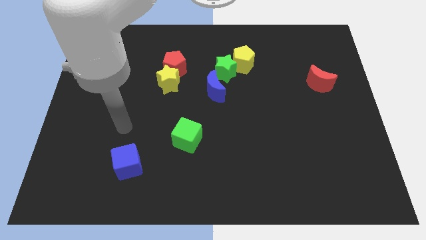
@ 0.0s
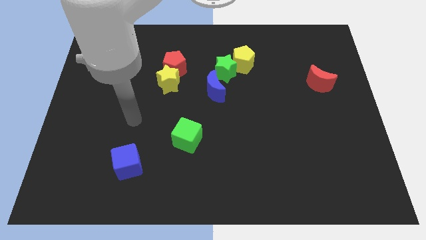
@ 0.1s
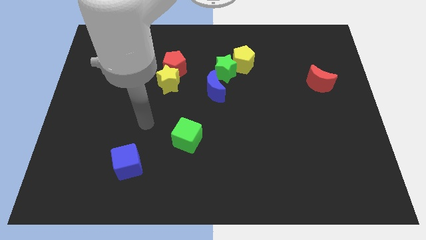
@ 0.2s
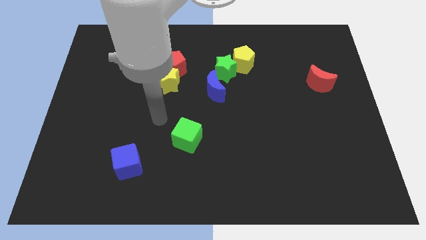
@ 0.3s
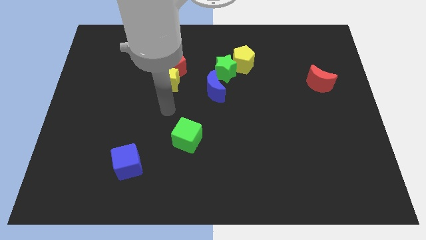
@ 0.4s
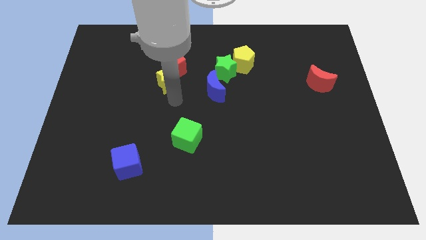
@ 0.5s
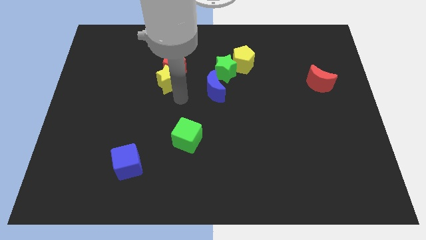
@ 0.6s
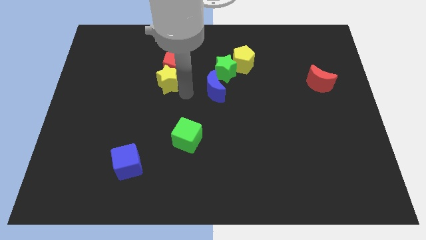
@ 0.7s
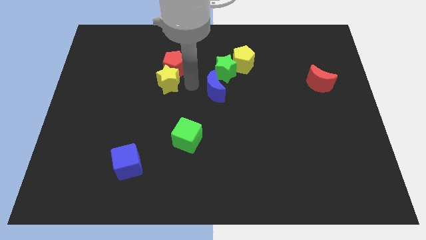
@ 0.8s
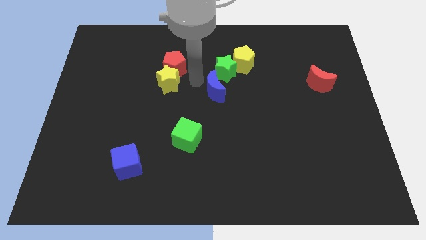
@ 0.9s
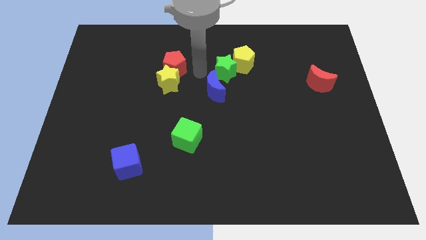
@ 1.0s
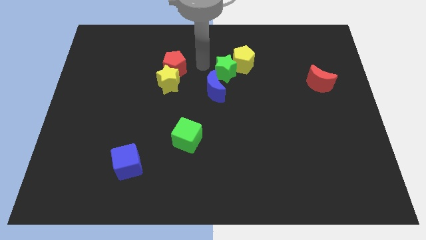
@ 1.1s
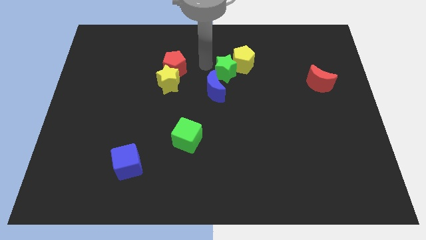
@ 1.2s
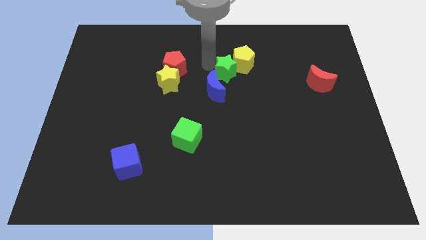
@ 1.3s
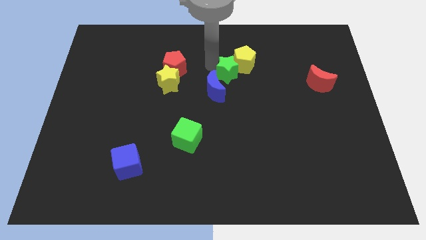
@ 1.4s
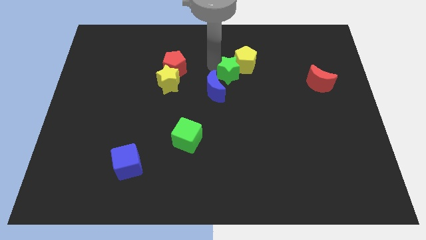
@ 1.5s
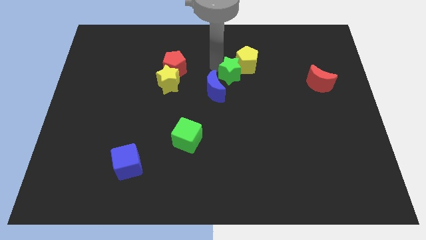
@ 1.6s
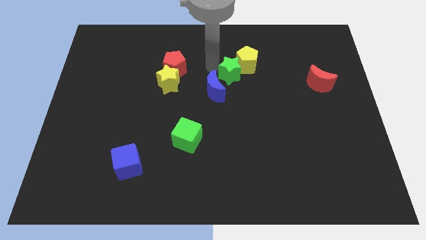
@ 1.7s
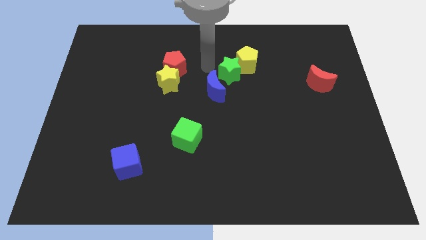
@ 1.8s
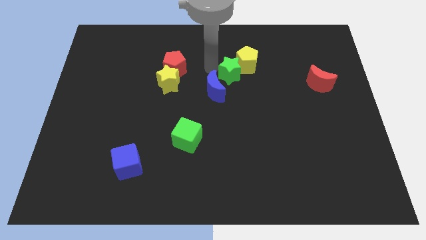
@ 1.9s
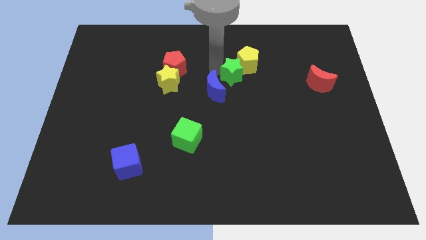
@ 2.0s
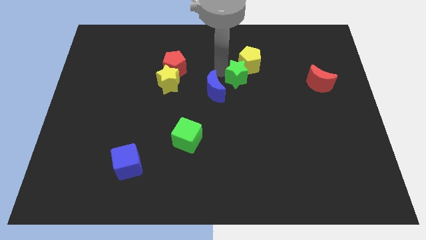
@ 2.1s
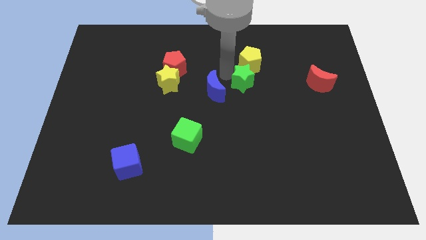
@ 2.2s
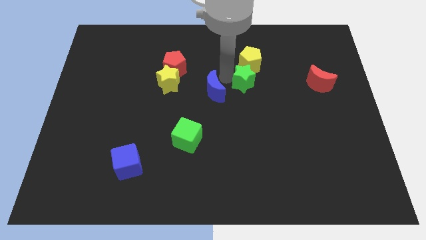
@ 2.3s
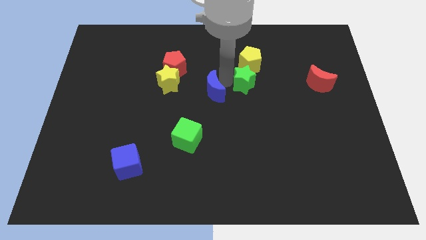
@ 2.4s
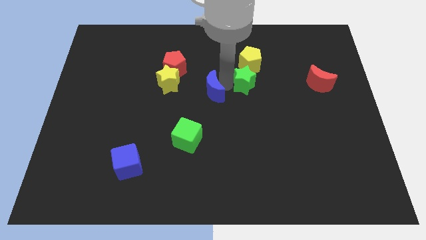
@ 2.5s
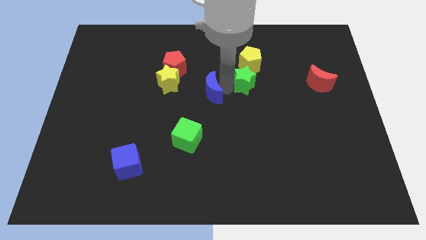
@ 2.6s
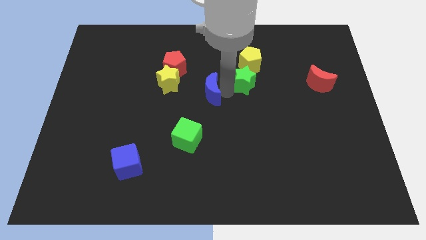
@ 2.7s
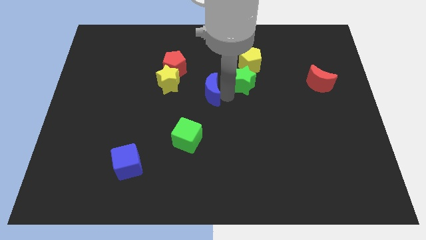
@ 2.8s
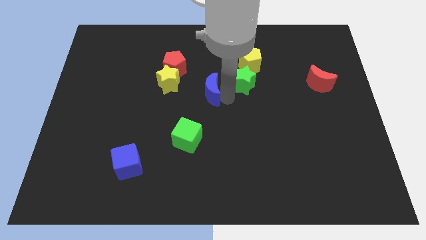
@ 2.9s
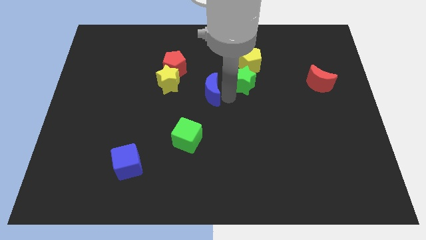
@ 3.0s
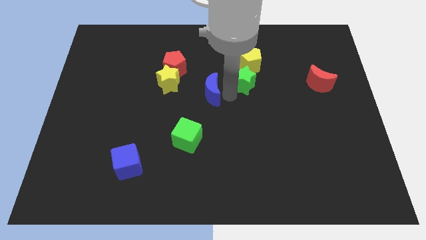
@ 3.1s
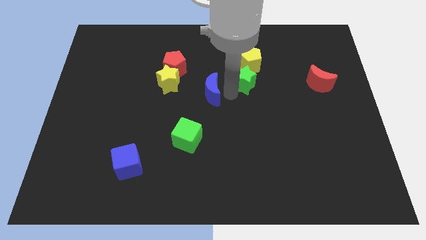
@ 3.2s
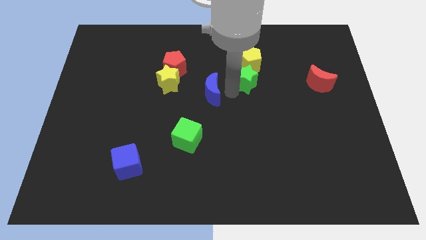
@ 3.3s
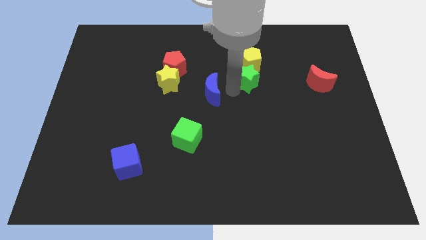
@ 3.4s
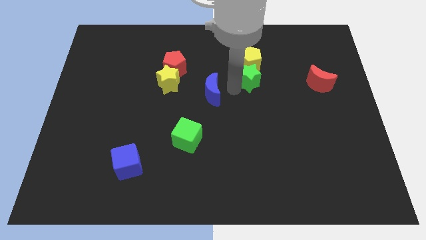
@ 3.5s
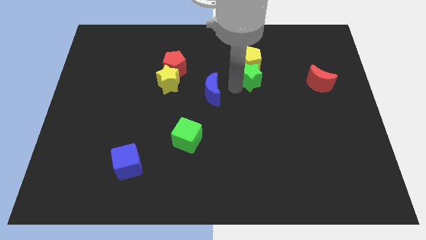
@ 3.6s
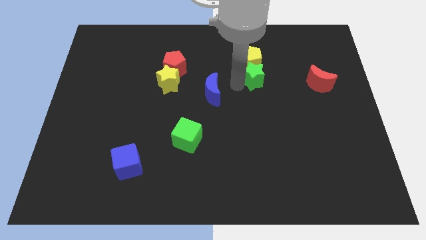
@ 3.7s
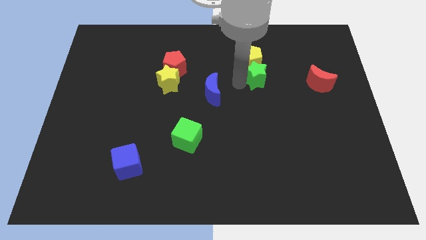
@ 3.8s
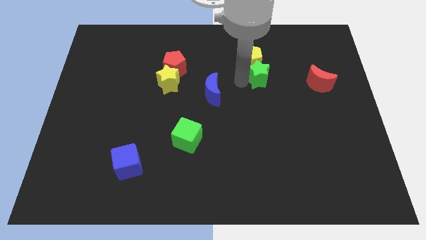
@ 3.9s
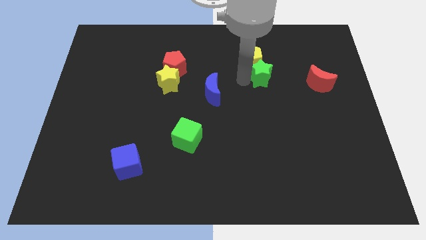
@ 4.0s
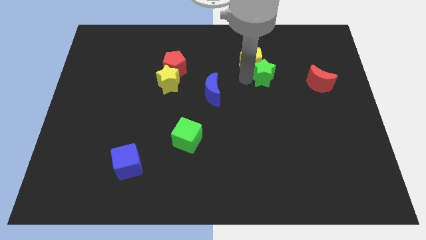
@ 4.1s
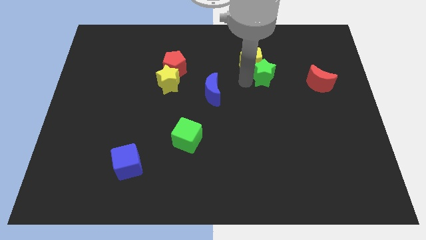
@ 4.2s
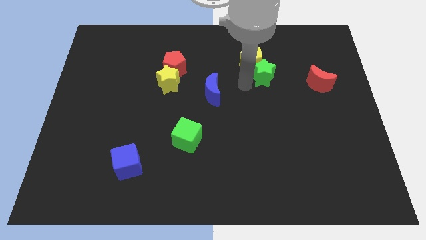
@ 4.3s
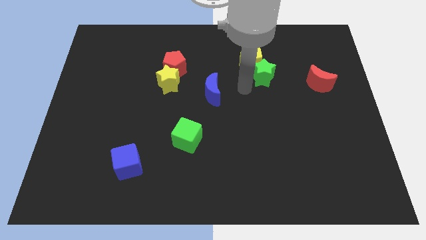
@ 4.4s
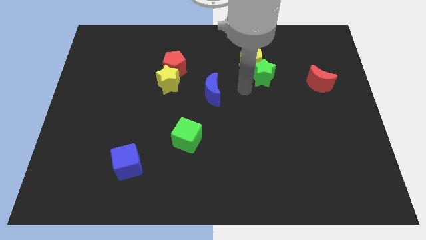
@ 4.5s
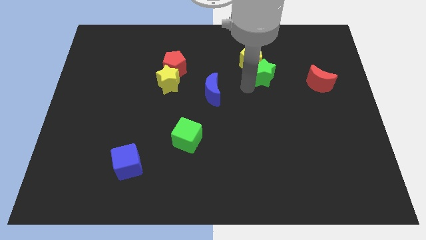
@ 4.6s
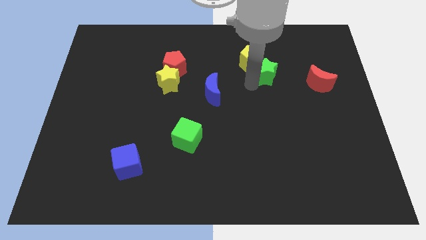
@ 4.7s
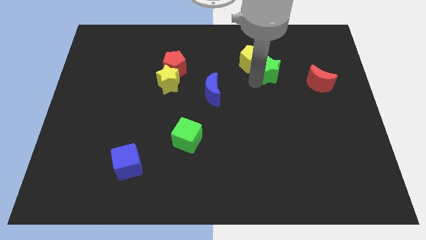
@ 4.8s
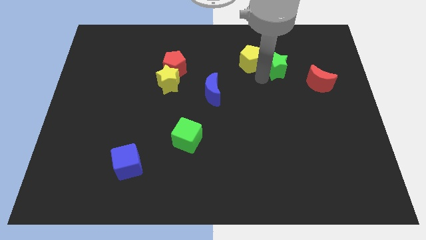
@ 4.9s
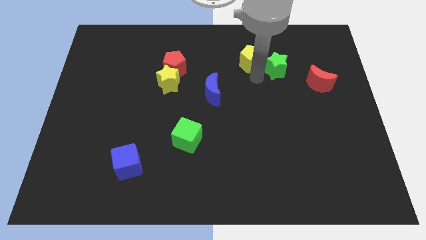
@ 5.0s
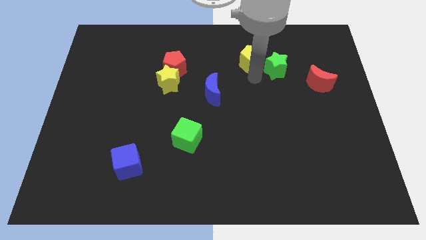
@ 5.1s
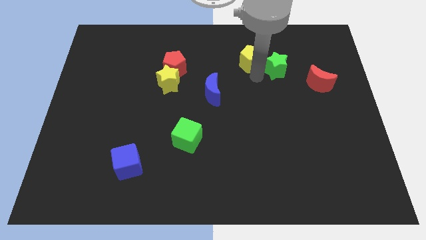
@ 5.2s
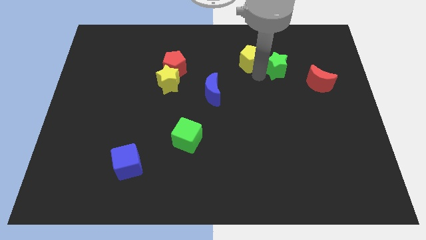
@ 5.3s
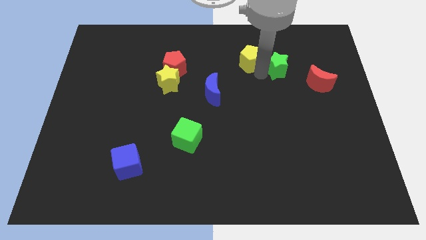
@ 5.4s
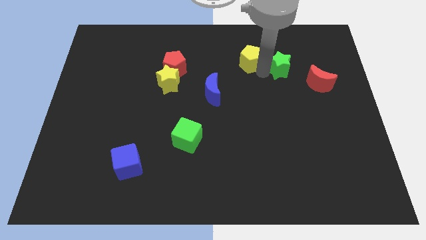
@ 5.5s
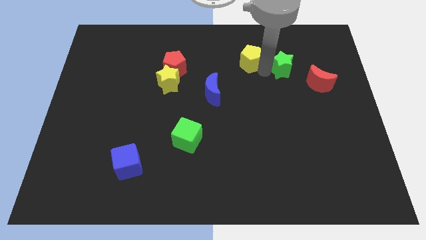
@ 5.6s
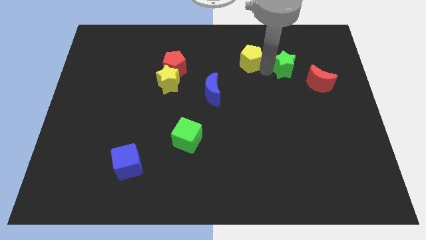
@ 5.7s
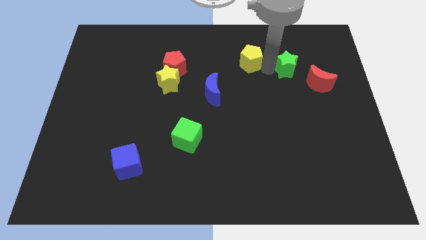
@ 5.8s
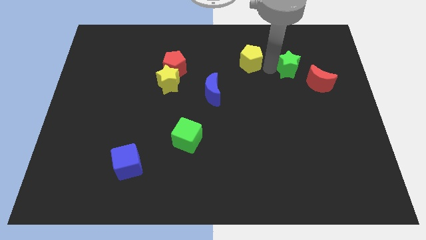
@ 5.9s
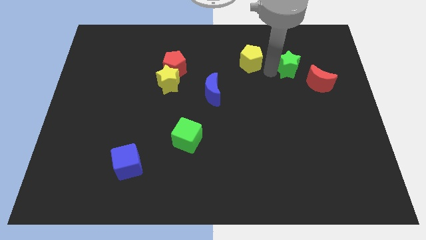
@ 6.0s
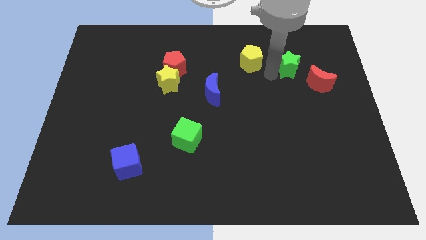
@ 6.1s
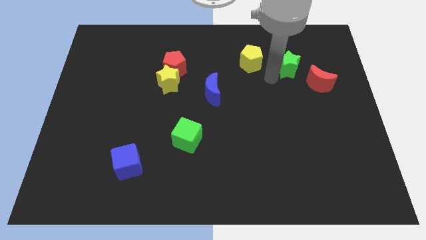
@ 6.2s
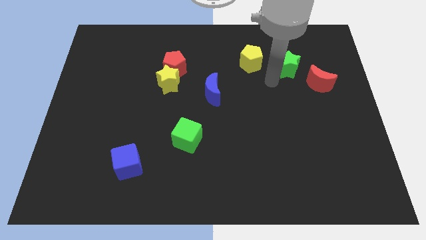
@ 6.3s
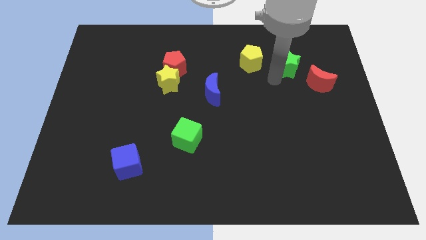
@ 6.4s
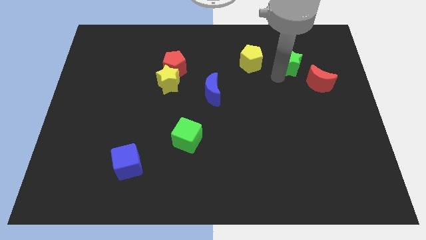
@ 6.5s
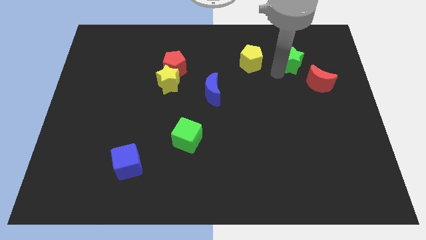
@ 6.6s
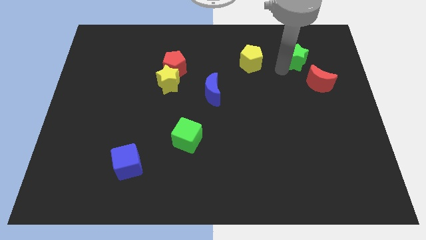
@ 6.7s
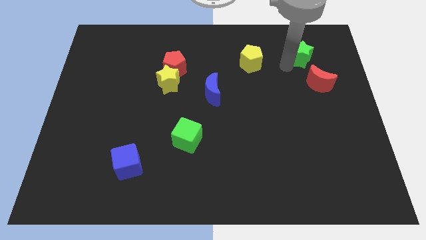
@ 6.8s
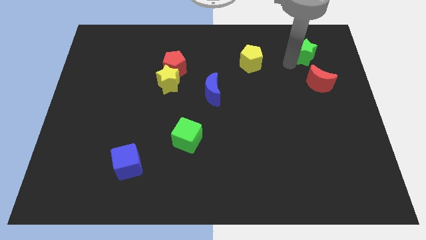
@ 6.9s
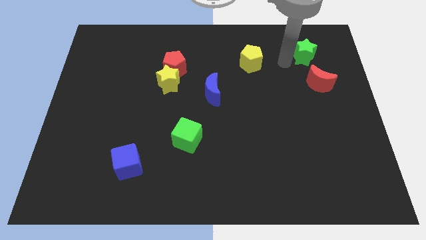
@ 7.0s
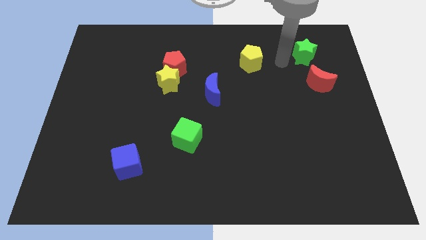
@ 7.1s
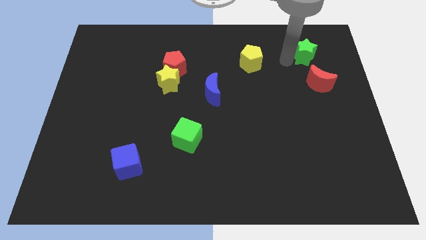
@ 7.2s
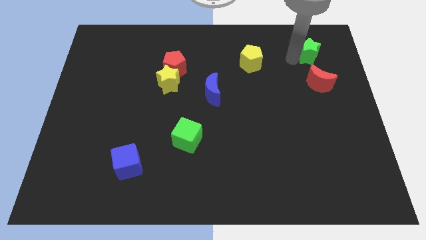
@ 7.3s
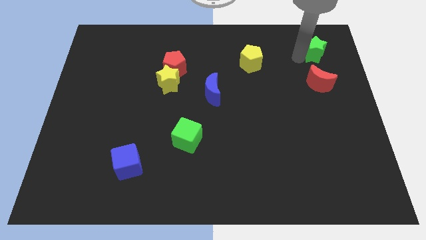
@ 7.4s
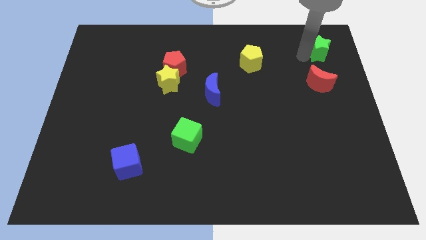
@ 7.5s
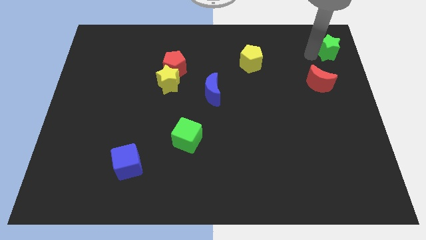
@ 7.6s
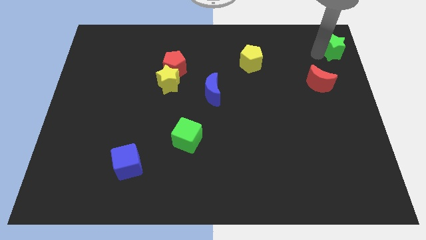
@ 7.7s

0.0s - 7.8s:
move the green star to the top right
